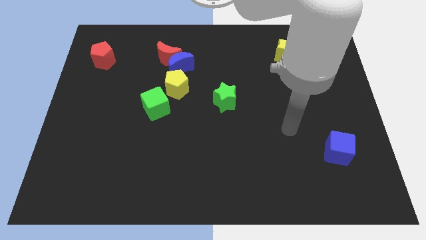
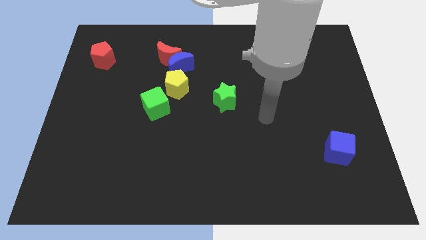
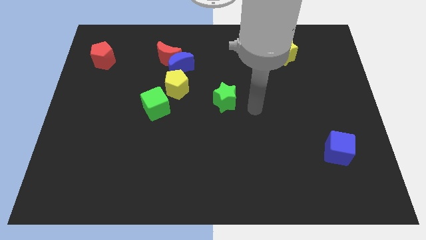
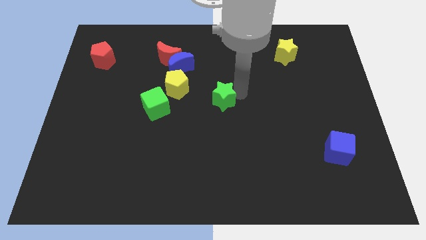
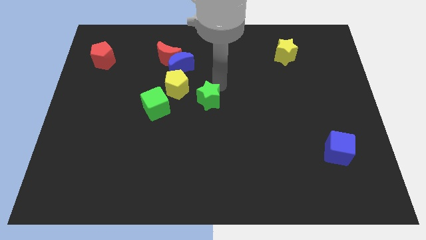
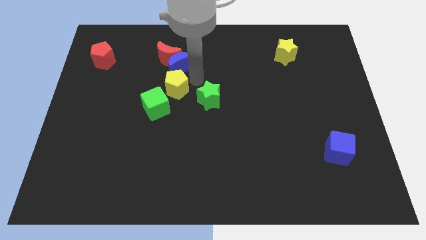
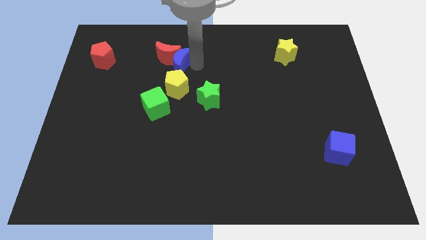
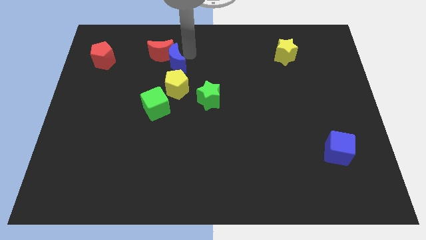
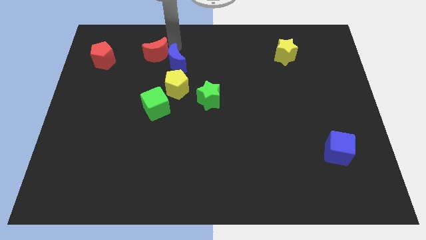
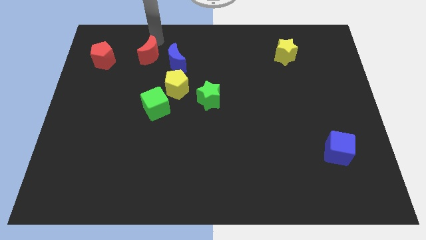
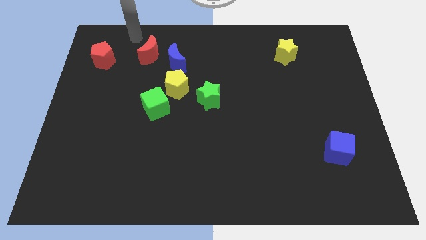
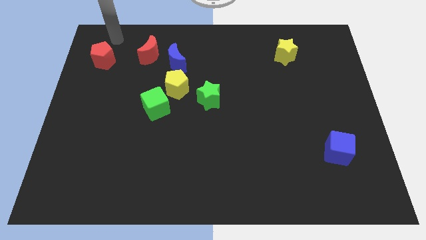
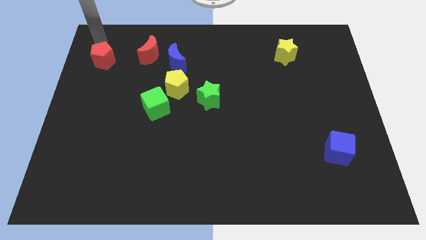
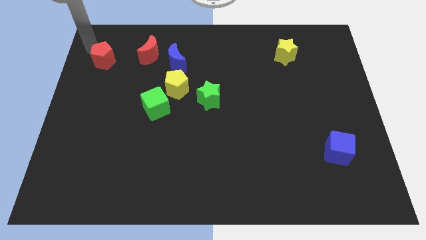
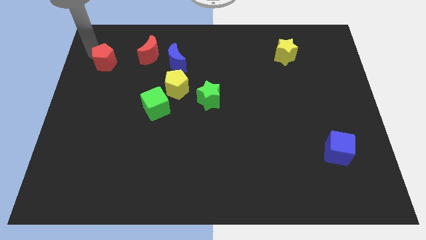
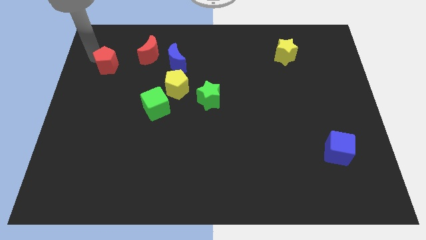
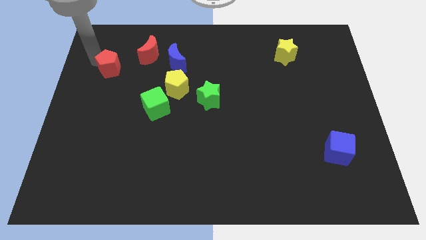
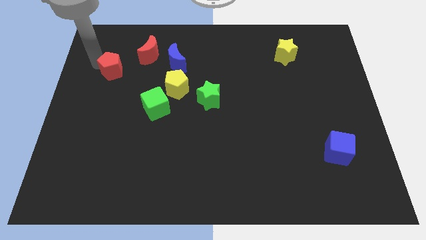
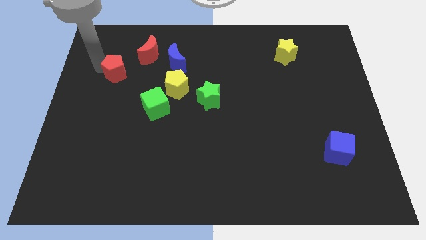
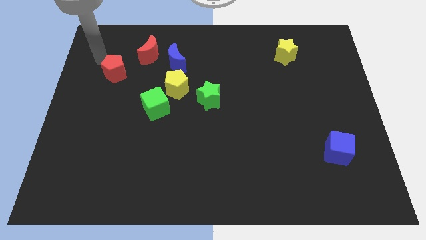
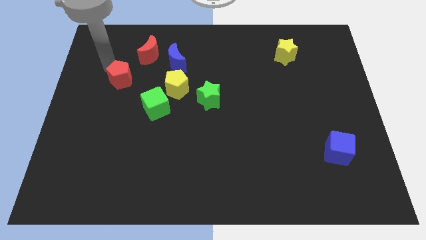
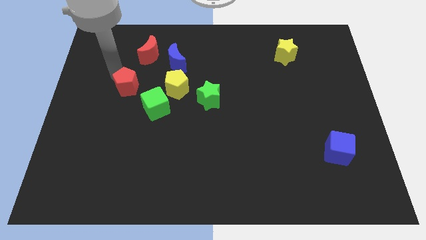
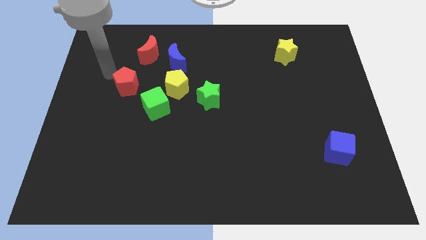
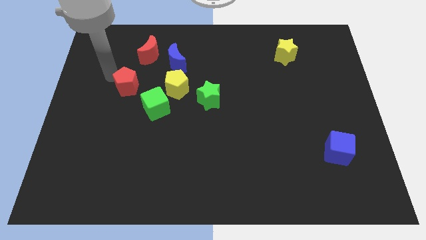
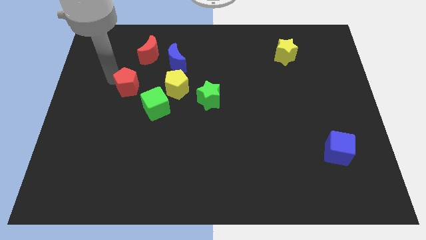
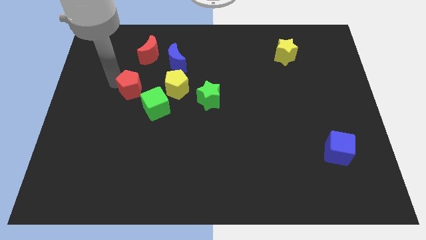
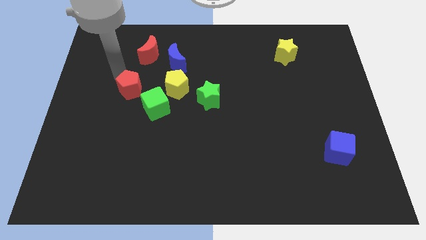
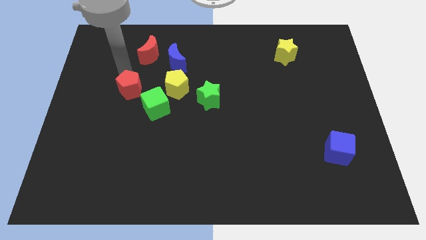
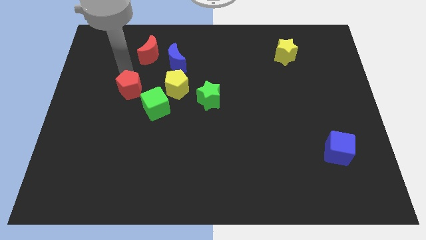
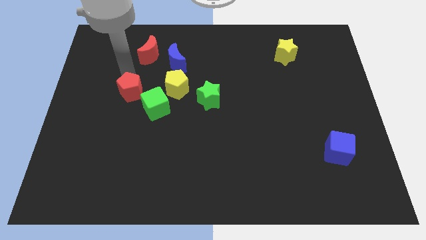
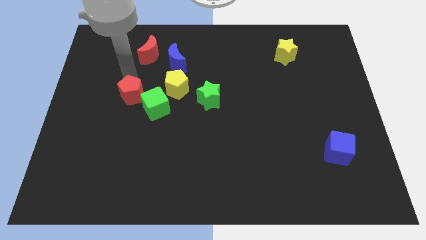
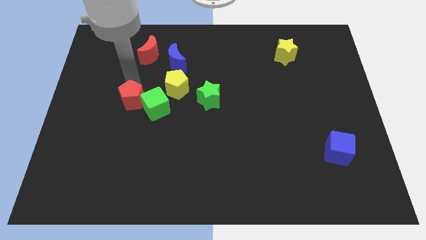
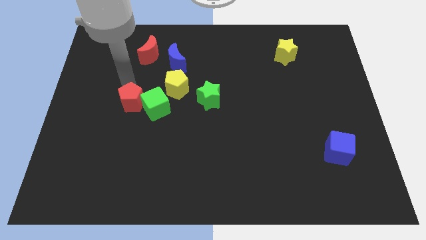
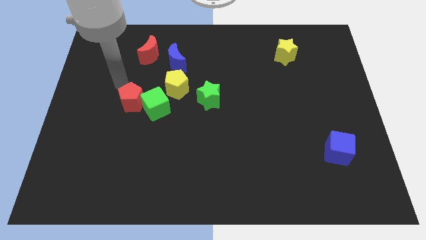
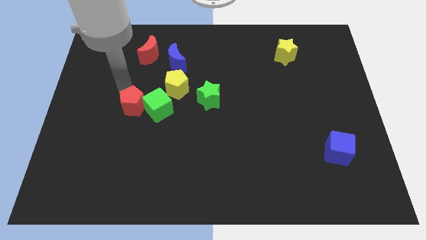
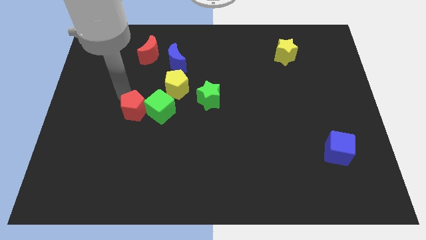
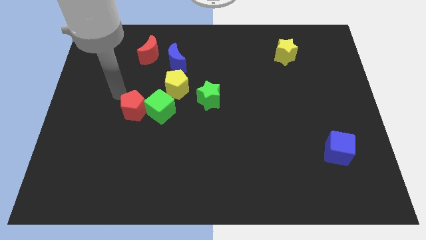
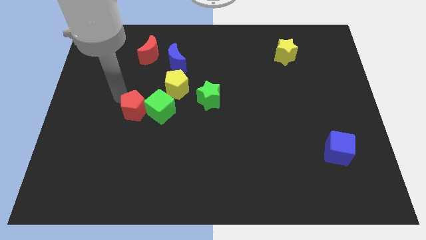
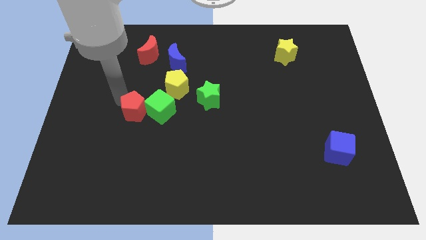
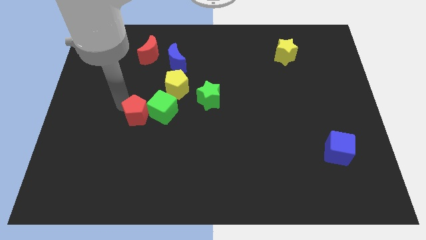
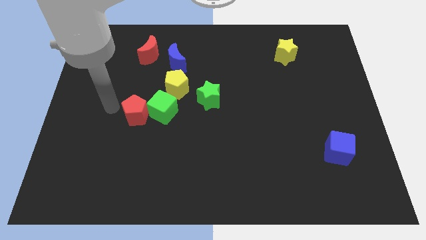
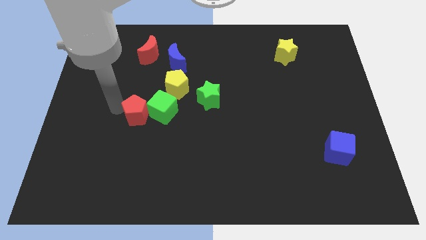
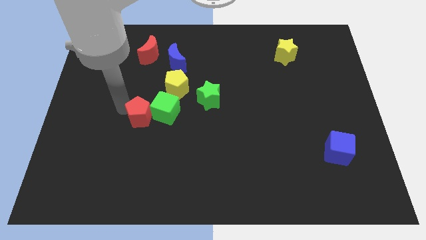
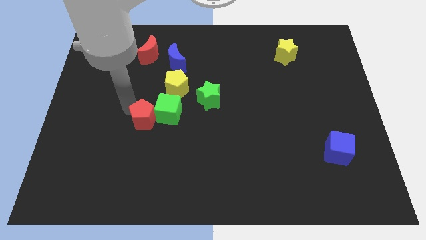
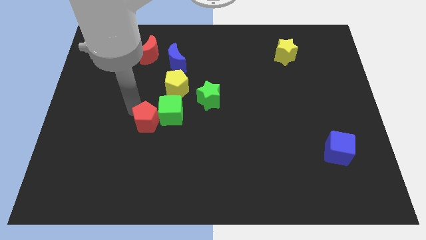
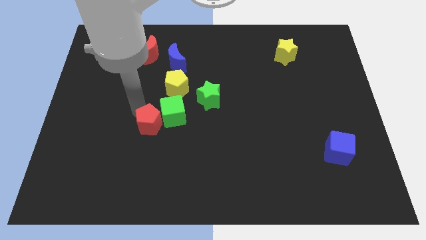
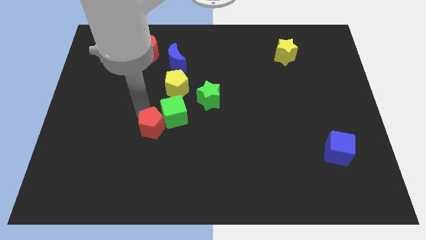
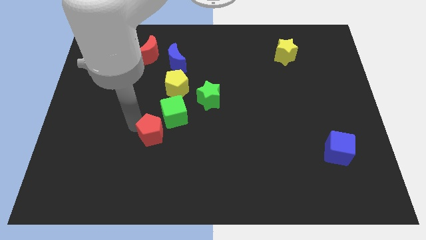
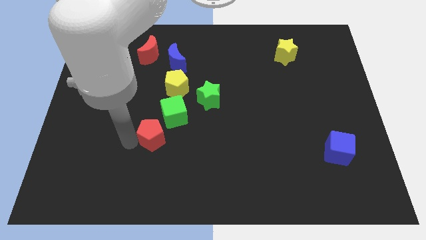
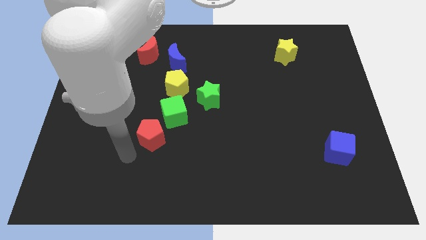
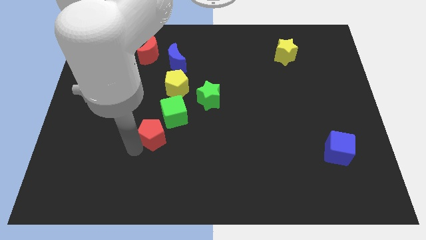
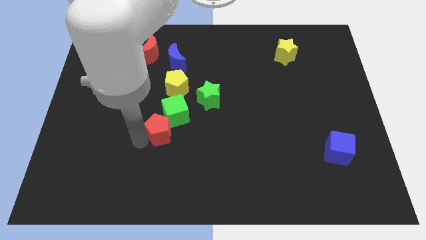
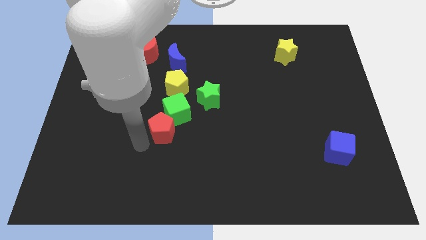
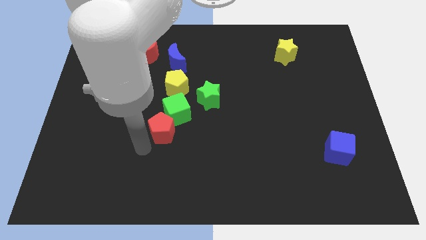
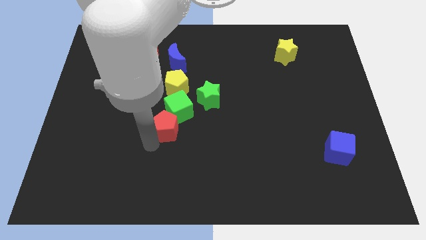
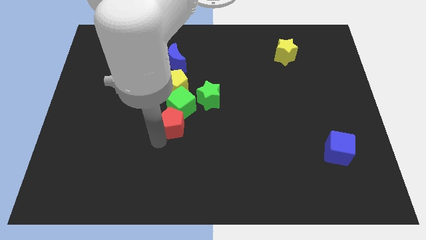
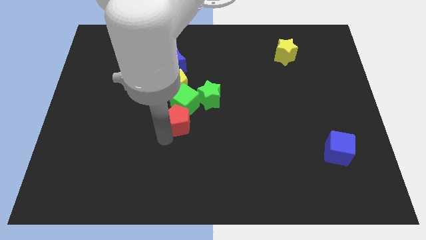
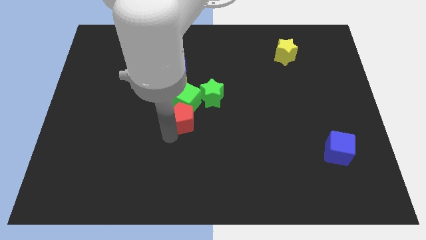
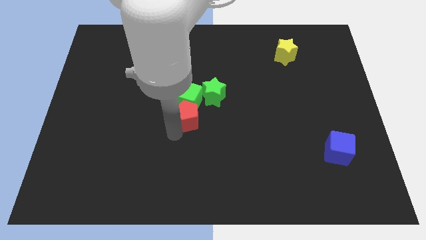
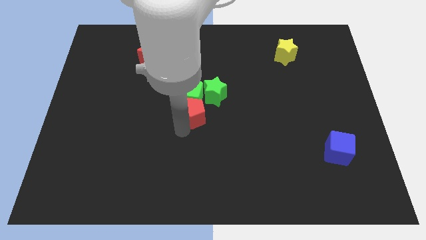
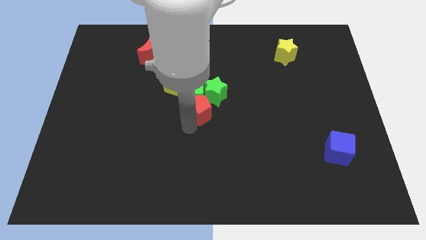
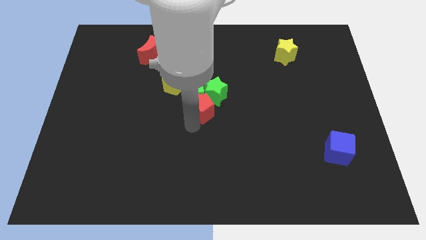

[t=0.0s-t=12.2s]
move the red pentagon towards the green star

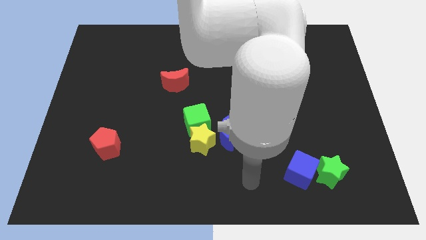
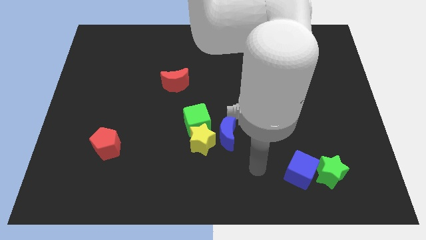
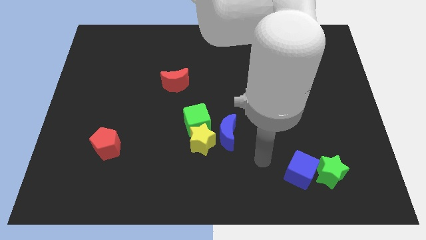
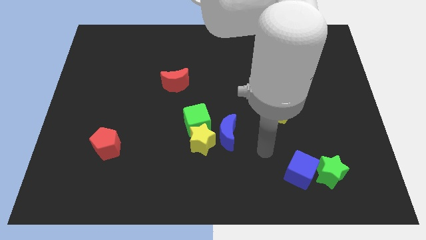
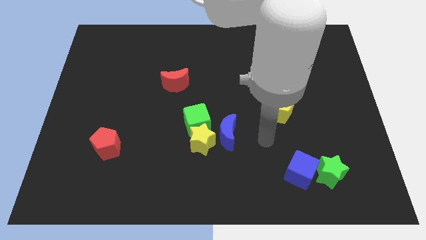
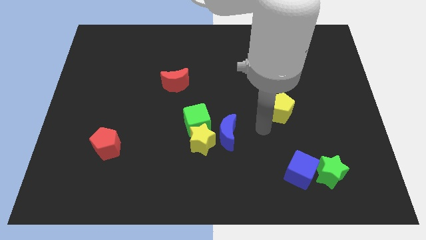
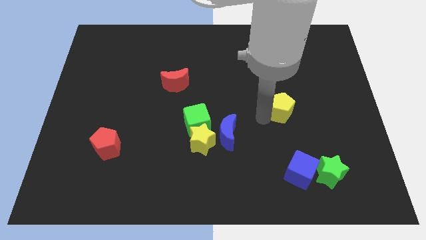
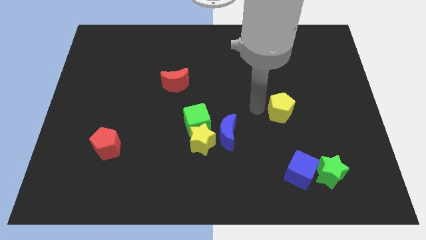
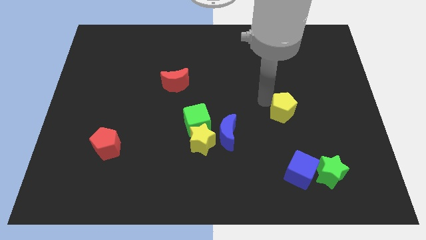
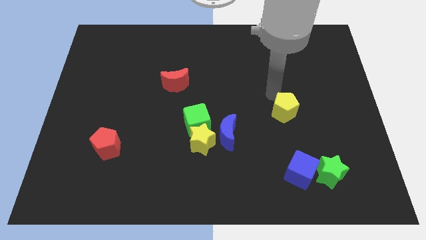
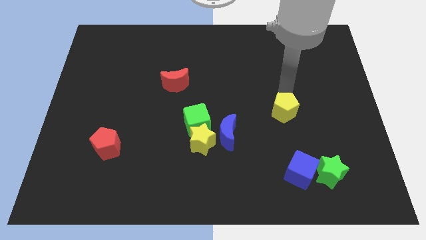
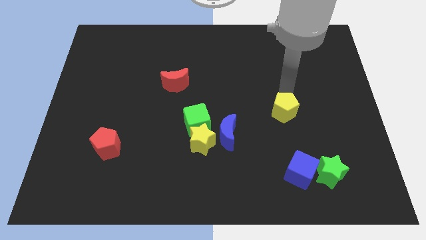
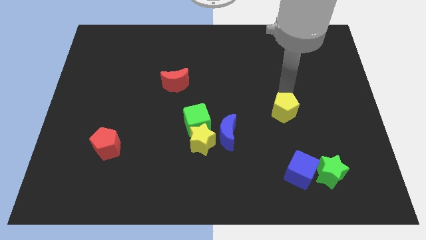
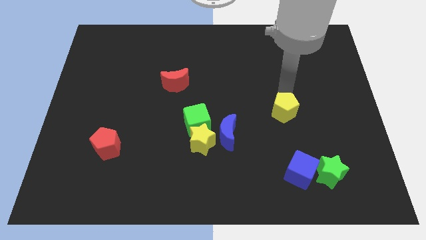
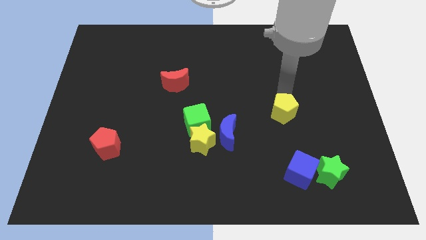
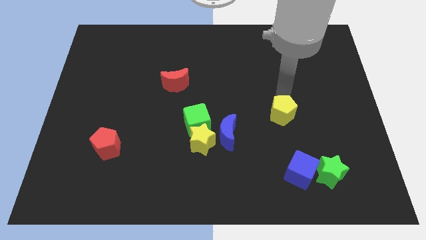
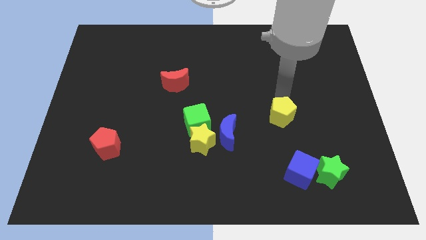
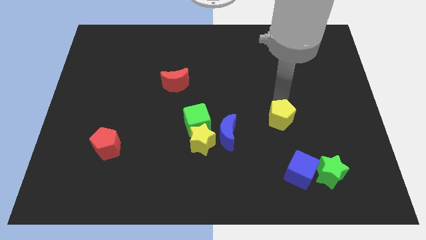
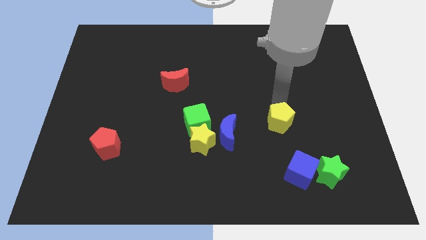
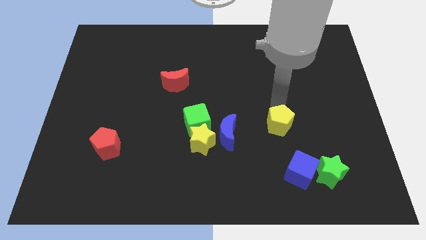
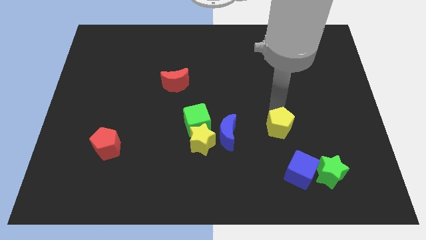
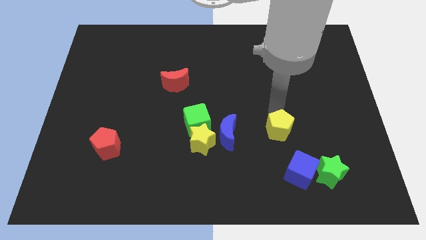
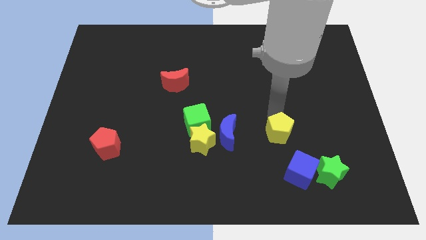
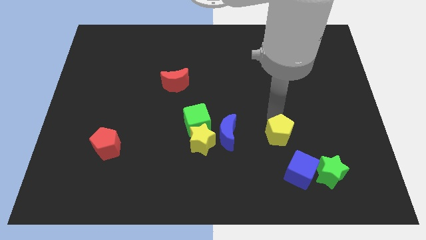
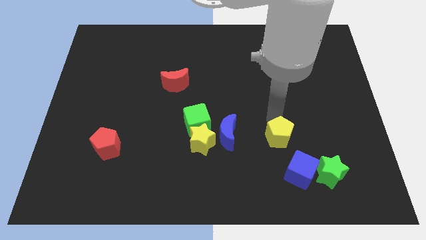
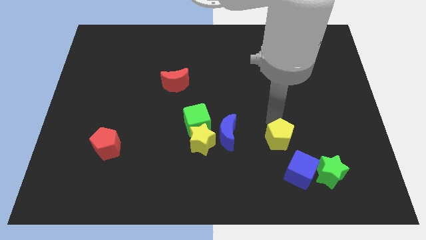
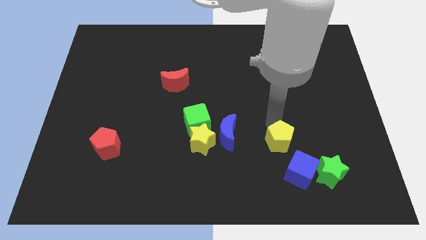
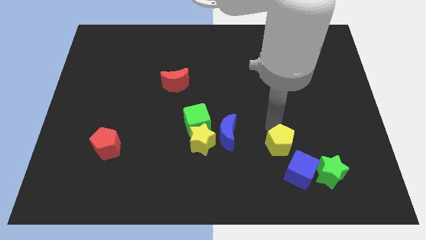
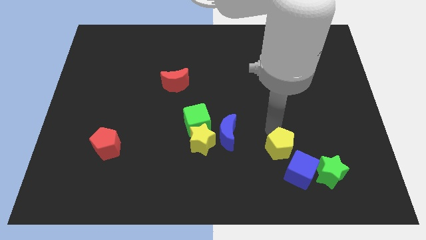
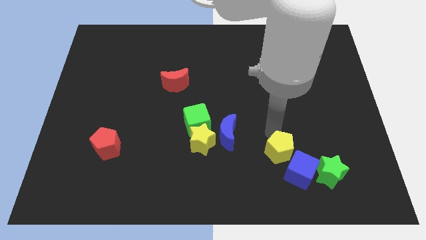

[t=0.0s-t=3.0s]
push the yellow pentagon close to the blue cube
